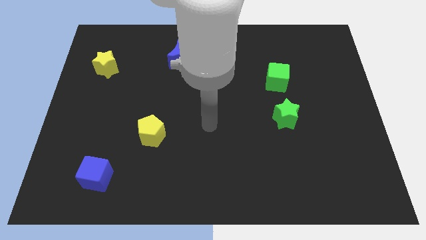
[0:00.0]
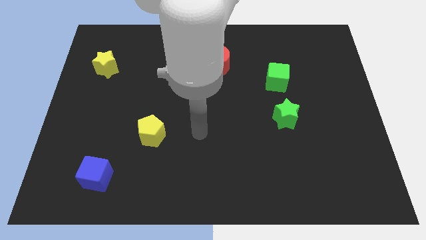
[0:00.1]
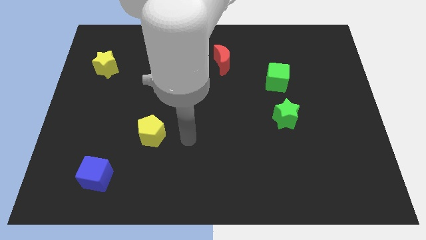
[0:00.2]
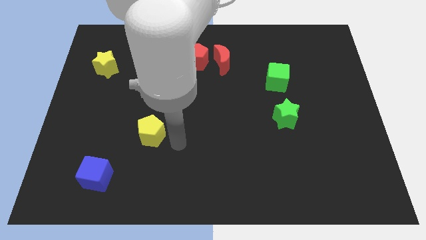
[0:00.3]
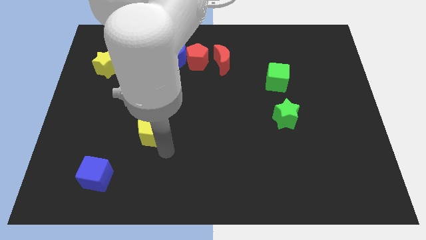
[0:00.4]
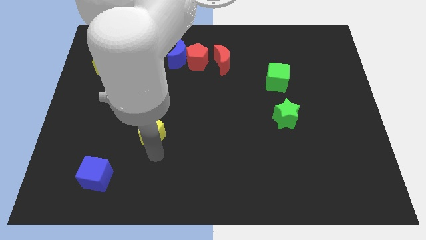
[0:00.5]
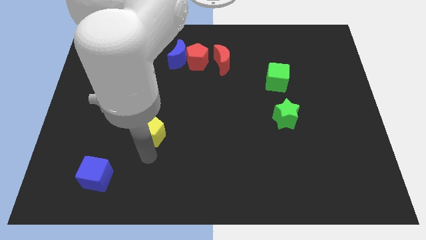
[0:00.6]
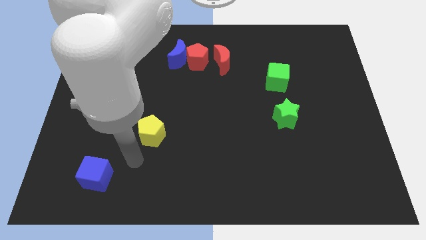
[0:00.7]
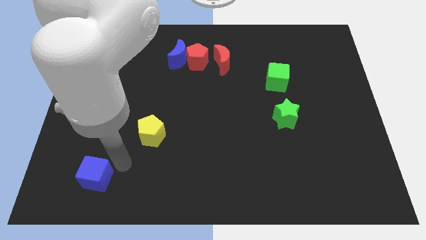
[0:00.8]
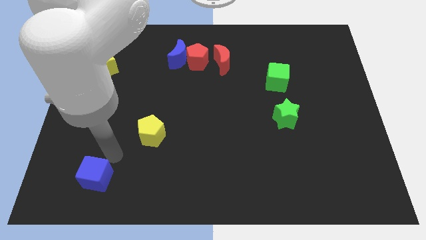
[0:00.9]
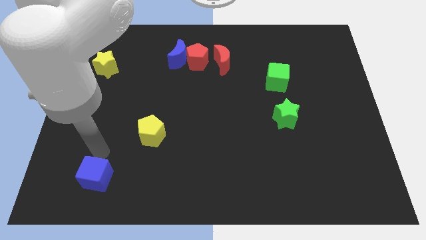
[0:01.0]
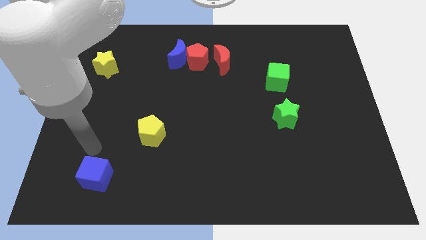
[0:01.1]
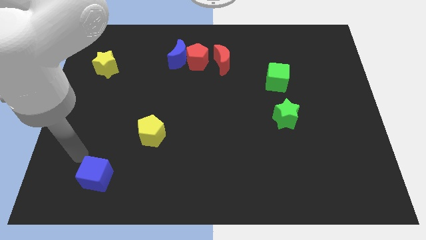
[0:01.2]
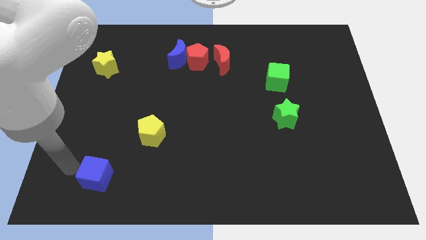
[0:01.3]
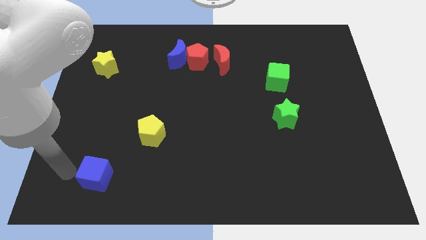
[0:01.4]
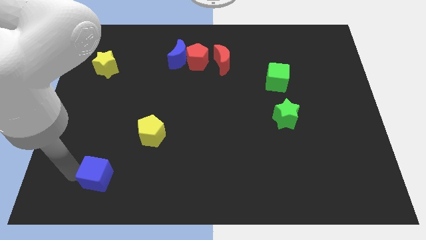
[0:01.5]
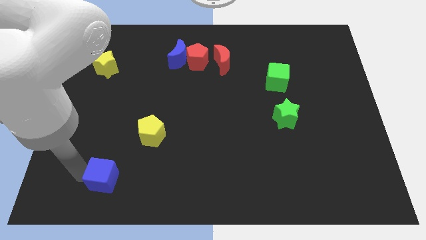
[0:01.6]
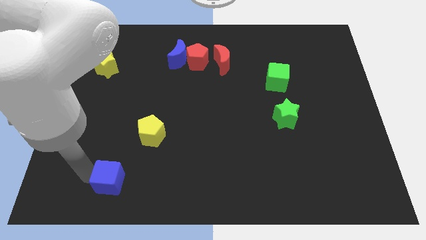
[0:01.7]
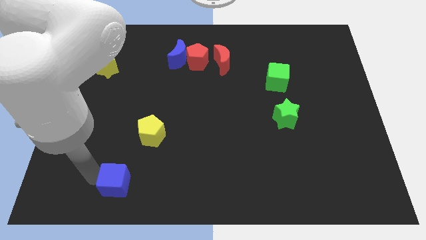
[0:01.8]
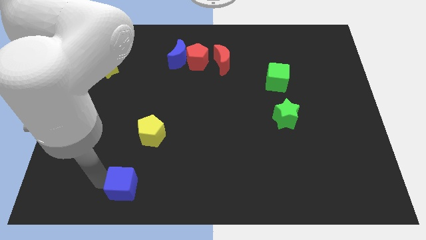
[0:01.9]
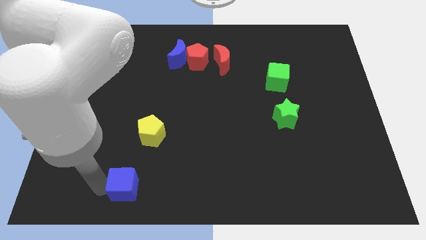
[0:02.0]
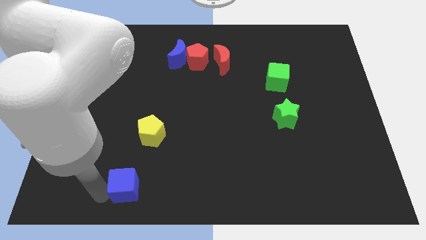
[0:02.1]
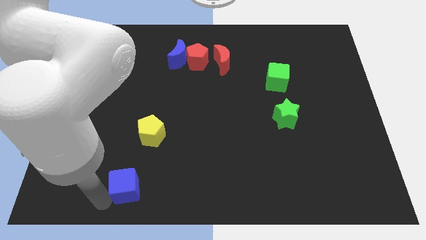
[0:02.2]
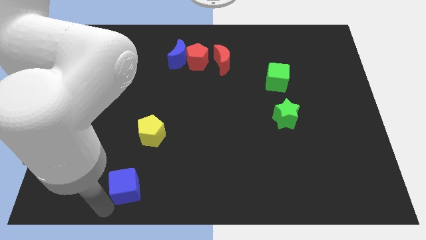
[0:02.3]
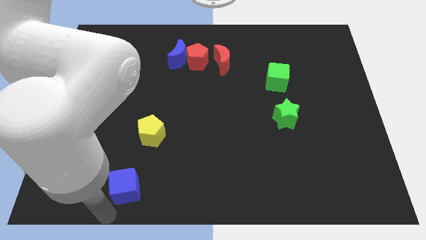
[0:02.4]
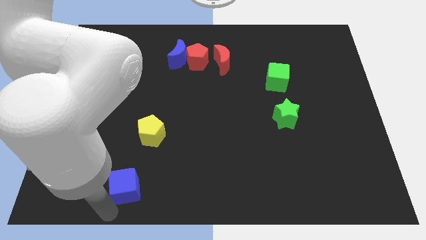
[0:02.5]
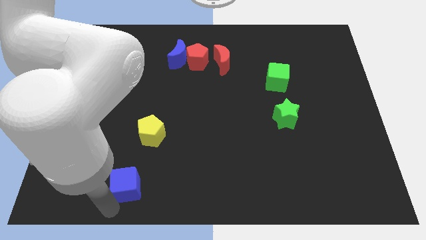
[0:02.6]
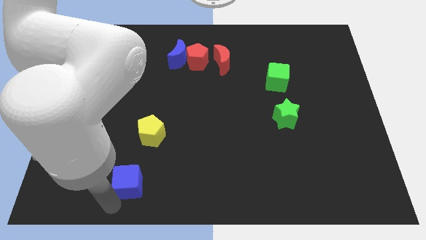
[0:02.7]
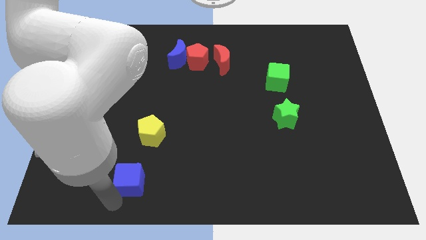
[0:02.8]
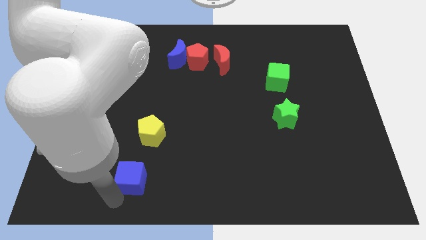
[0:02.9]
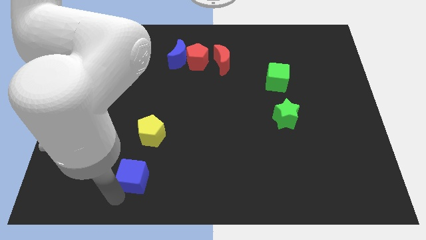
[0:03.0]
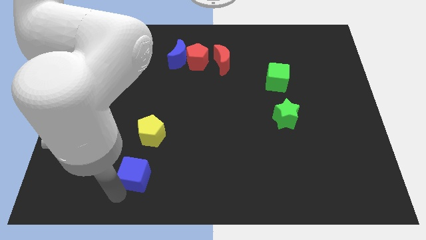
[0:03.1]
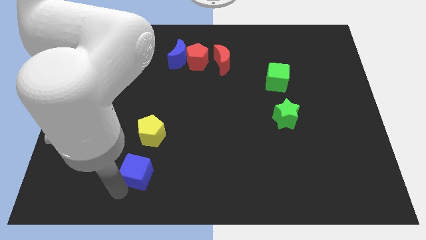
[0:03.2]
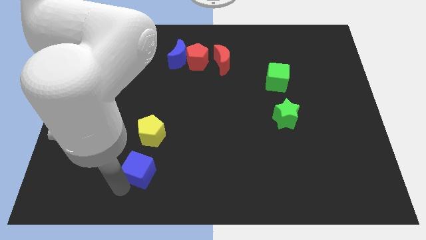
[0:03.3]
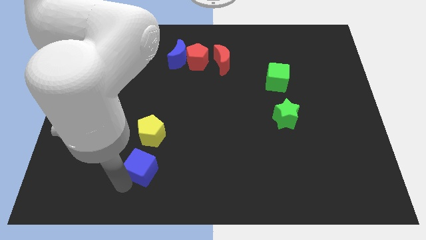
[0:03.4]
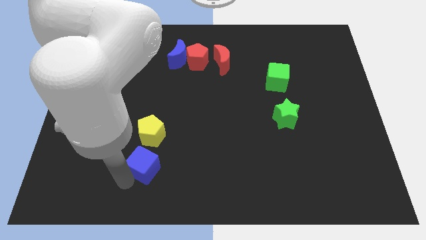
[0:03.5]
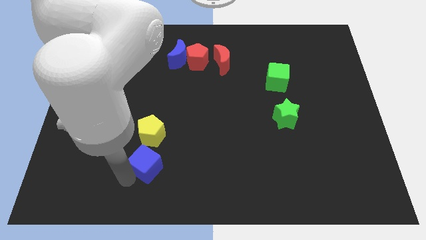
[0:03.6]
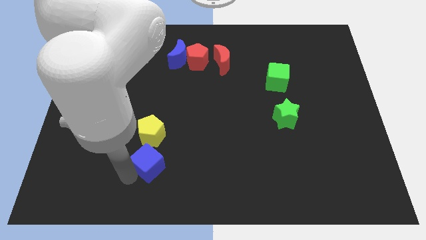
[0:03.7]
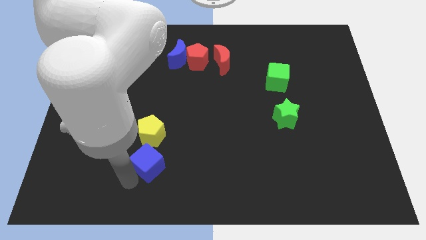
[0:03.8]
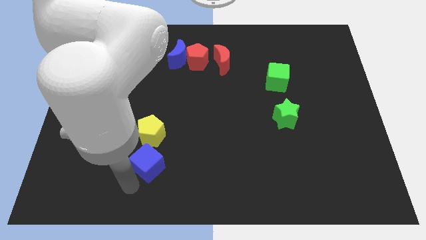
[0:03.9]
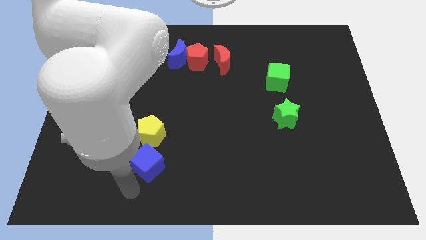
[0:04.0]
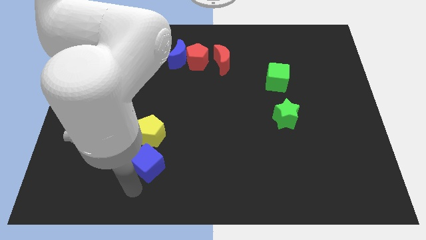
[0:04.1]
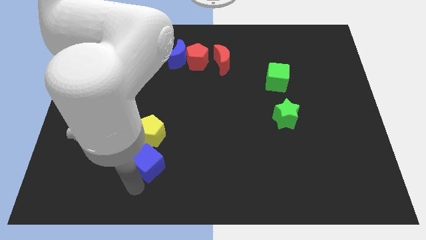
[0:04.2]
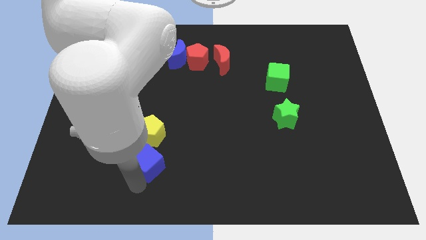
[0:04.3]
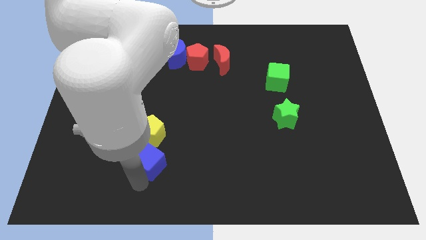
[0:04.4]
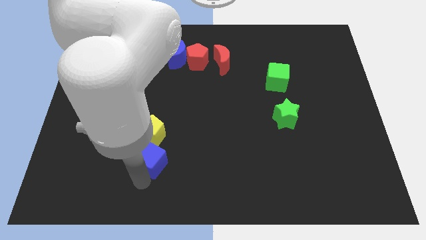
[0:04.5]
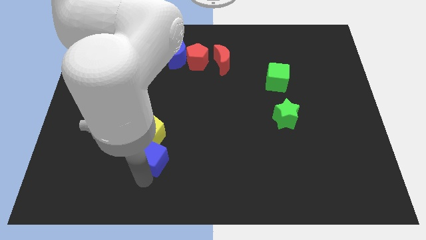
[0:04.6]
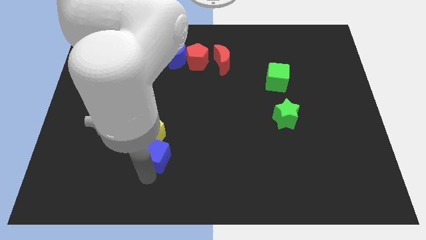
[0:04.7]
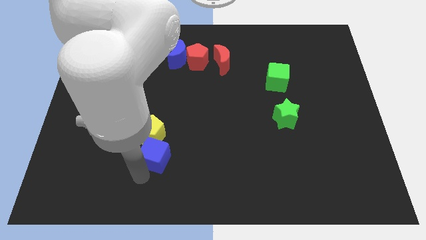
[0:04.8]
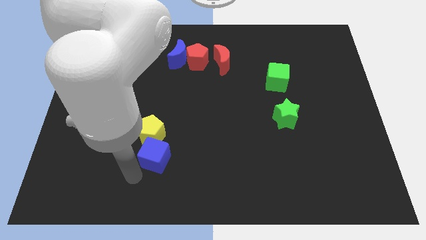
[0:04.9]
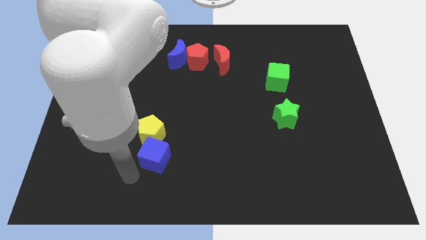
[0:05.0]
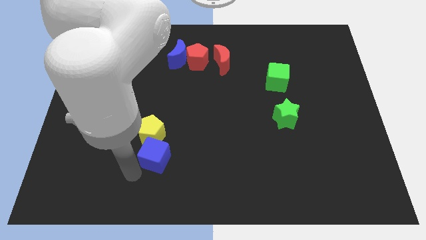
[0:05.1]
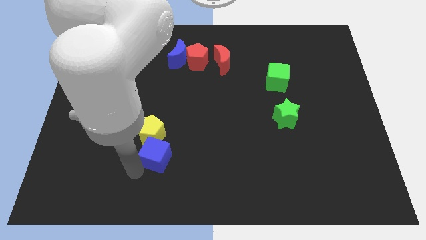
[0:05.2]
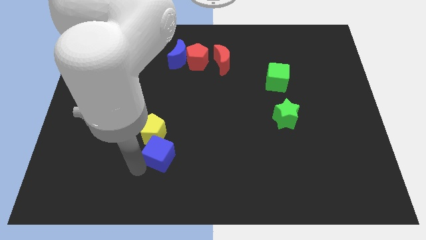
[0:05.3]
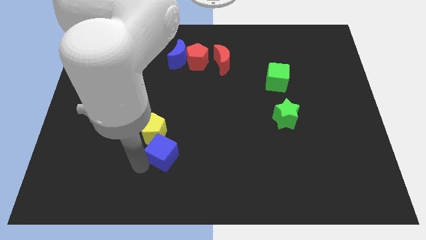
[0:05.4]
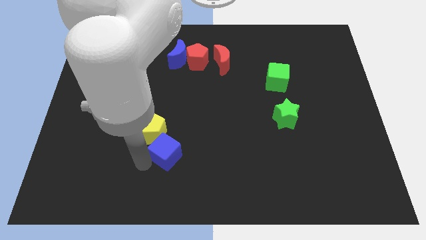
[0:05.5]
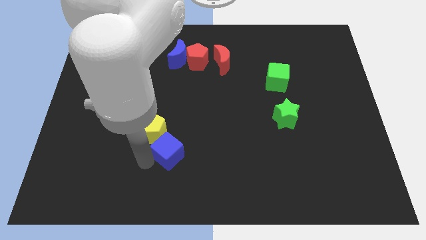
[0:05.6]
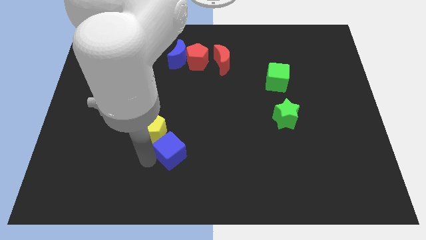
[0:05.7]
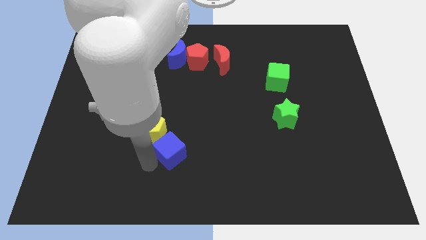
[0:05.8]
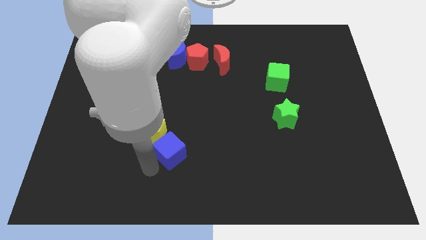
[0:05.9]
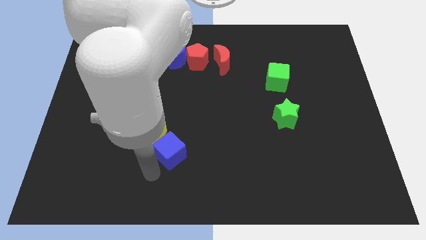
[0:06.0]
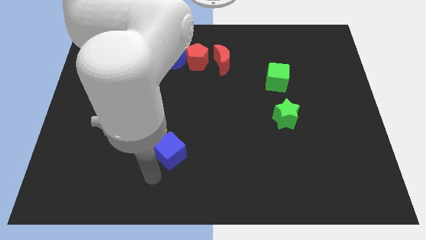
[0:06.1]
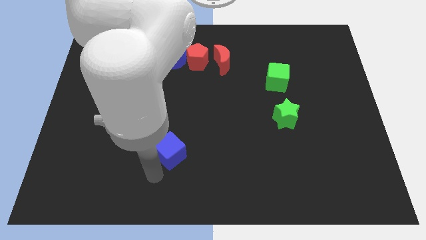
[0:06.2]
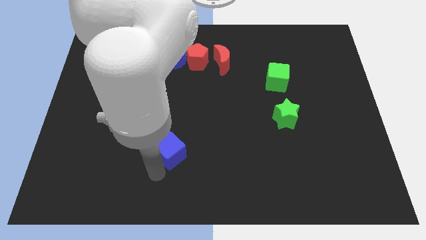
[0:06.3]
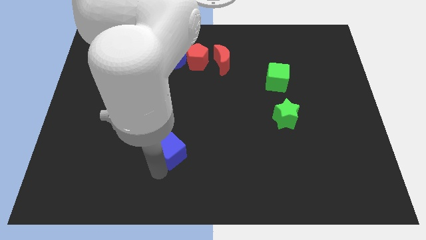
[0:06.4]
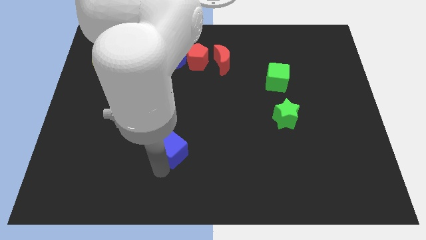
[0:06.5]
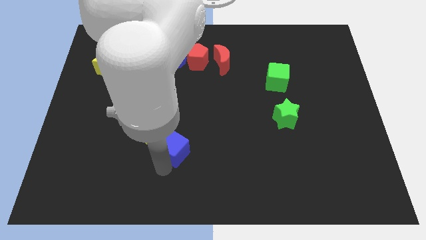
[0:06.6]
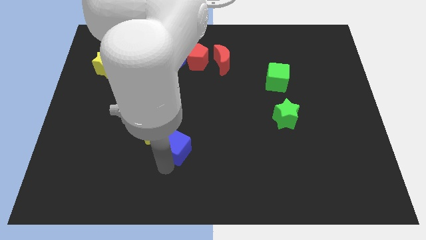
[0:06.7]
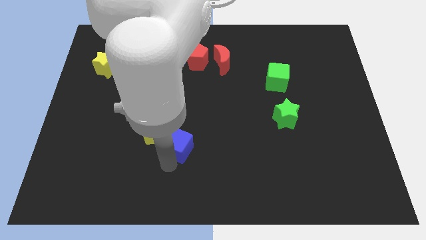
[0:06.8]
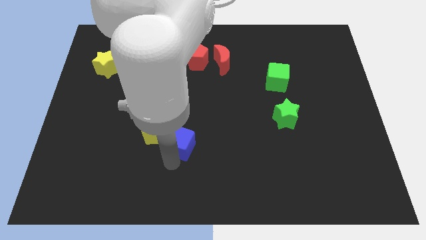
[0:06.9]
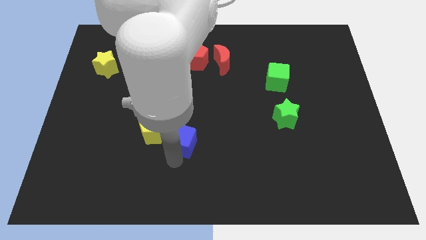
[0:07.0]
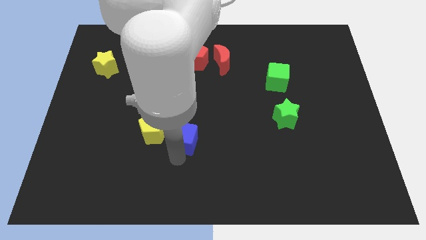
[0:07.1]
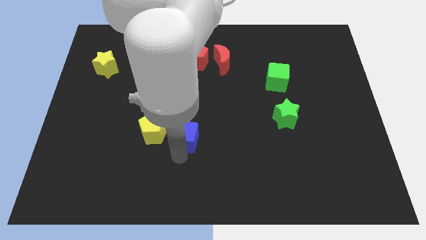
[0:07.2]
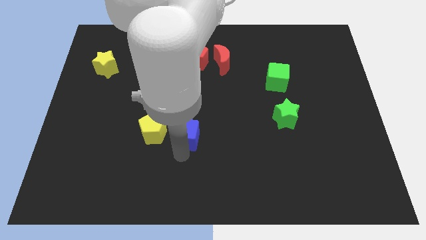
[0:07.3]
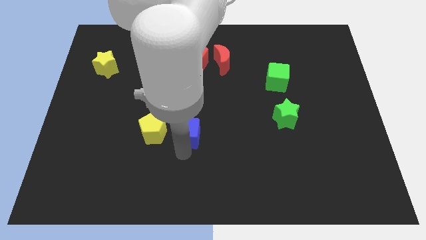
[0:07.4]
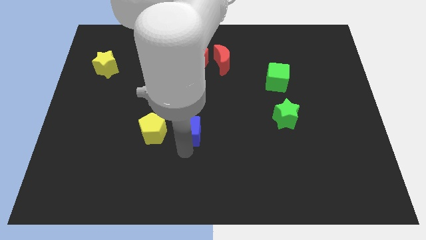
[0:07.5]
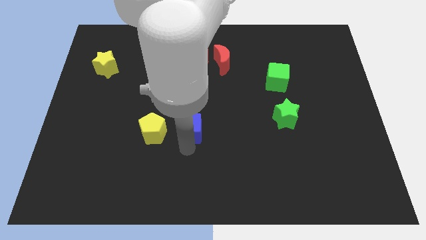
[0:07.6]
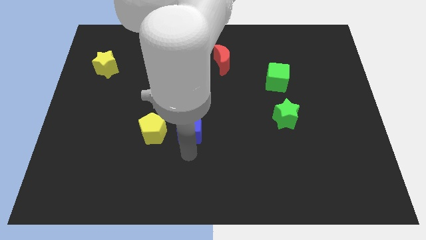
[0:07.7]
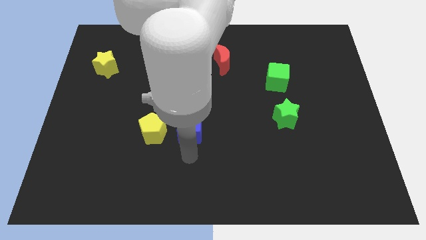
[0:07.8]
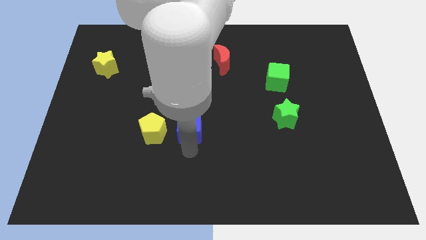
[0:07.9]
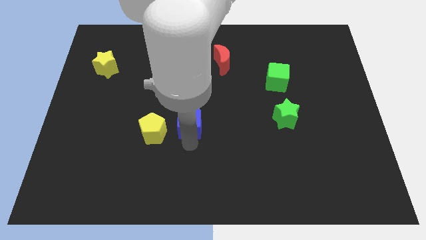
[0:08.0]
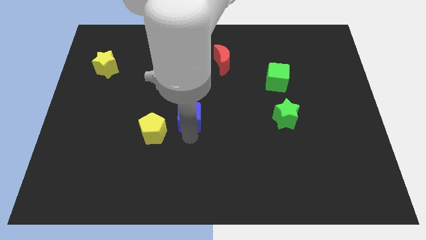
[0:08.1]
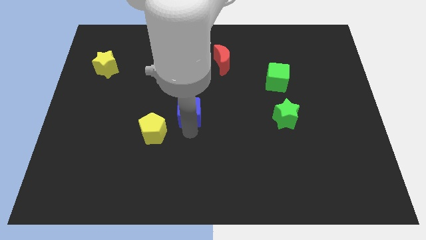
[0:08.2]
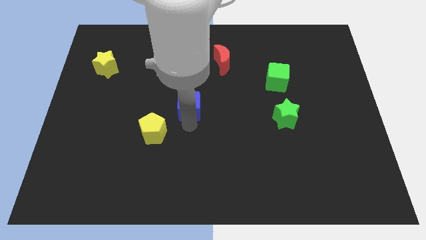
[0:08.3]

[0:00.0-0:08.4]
slide the blue cube below the red pentagon
